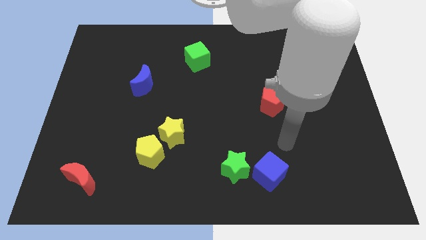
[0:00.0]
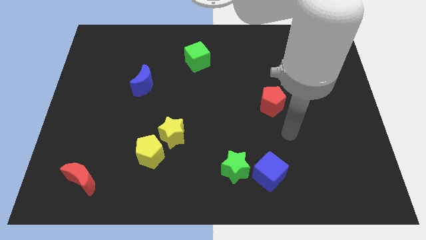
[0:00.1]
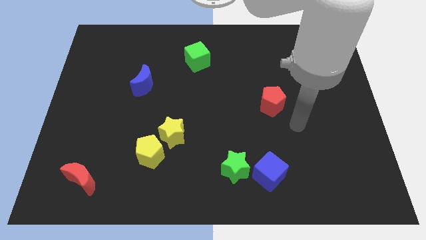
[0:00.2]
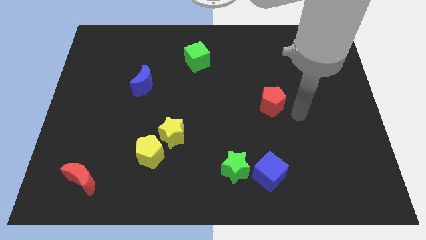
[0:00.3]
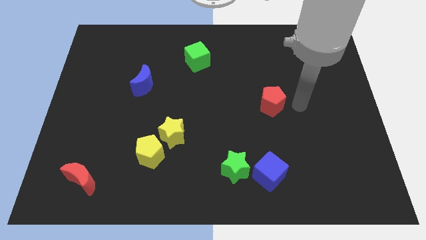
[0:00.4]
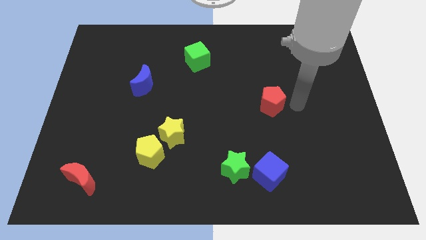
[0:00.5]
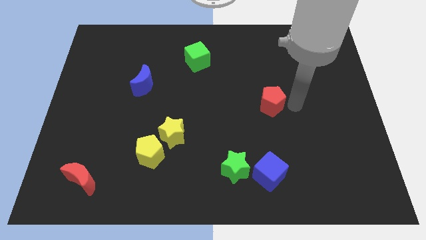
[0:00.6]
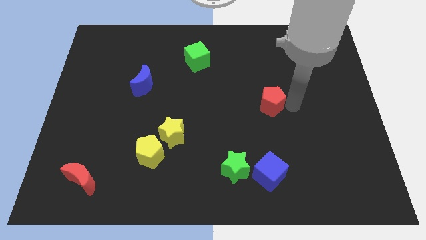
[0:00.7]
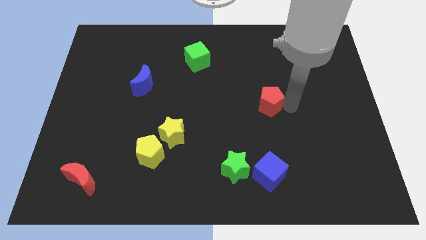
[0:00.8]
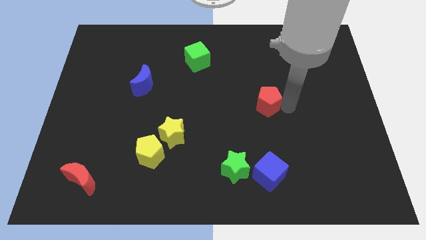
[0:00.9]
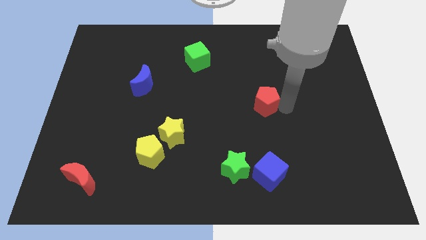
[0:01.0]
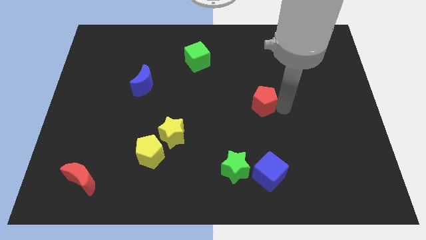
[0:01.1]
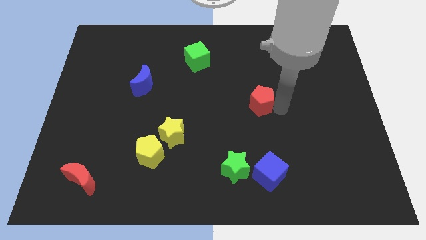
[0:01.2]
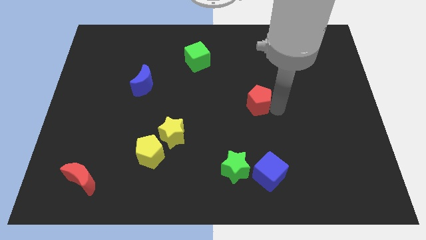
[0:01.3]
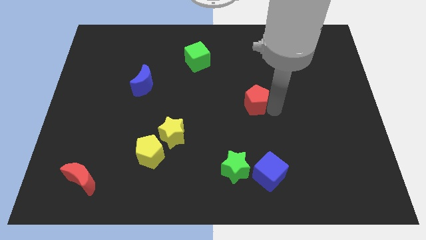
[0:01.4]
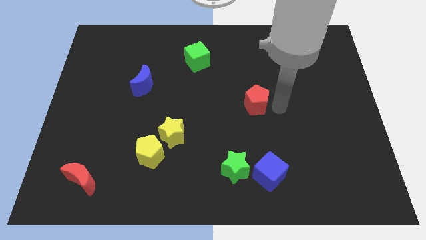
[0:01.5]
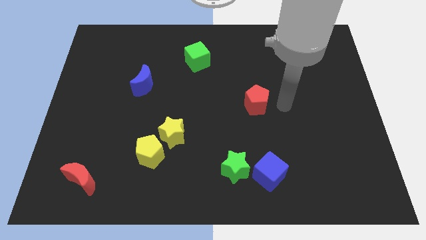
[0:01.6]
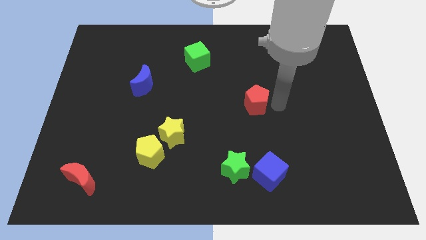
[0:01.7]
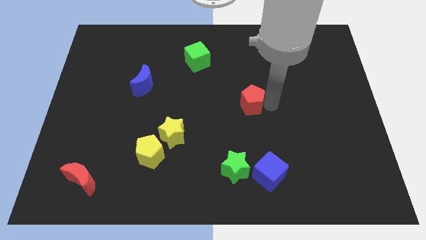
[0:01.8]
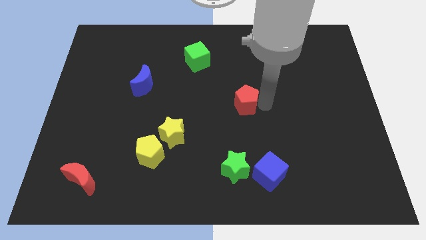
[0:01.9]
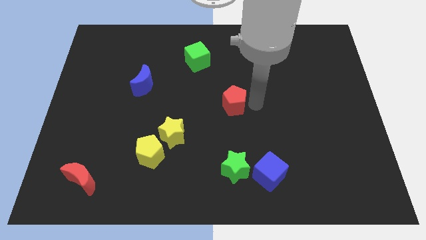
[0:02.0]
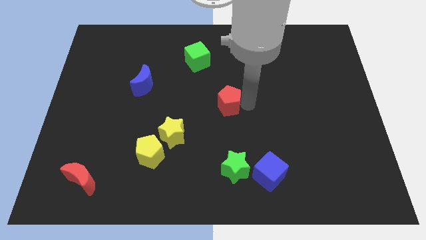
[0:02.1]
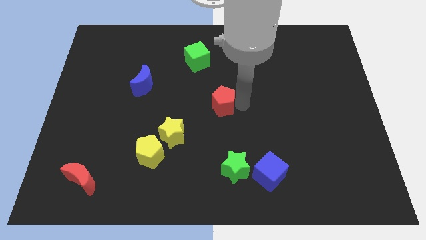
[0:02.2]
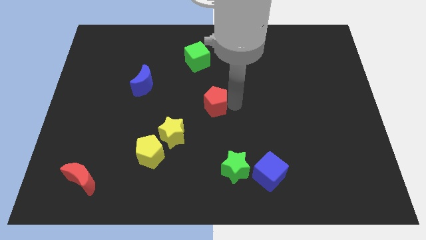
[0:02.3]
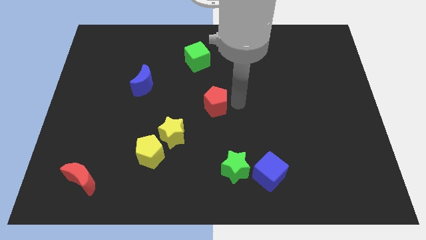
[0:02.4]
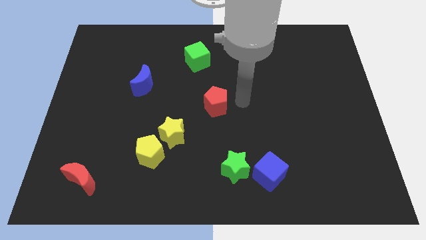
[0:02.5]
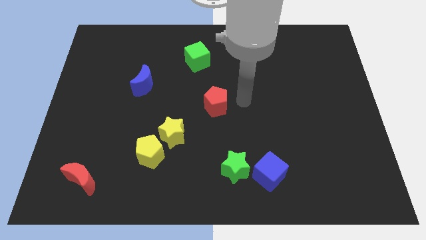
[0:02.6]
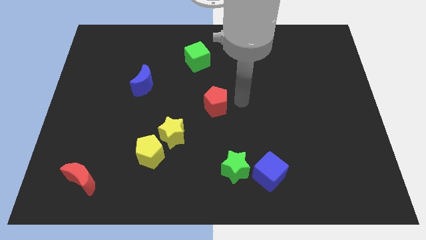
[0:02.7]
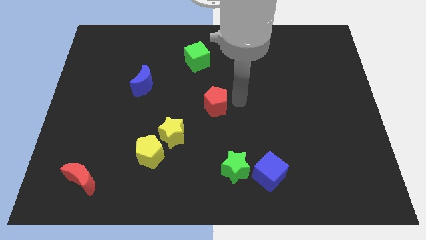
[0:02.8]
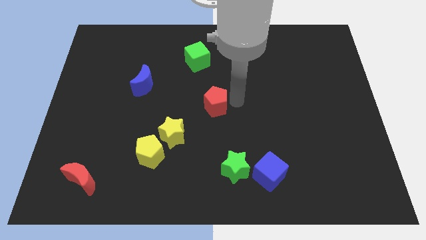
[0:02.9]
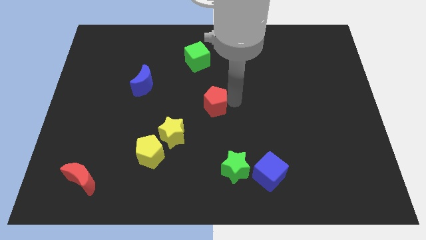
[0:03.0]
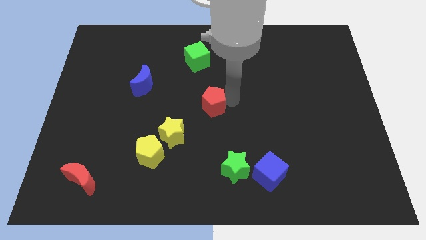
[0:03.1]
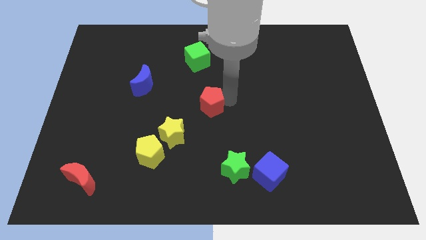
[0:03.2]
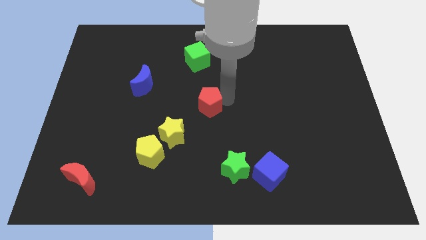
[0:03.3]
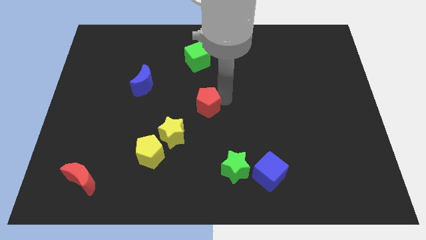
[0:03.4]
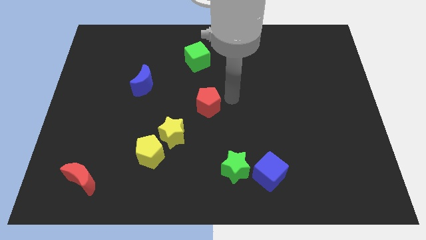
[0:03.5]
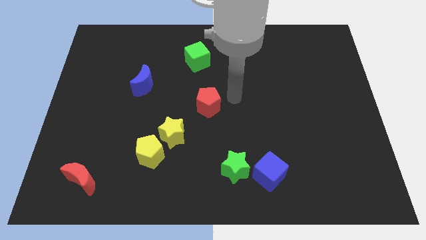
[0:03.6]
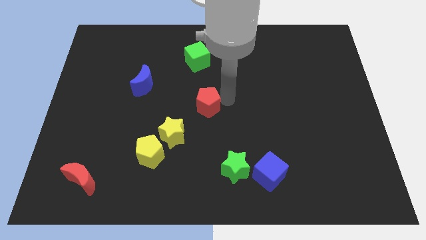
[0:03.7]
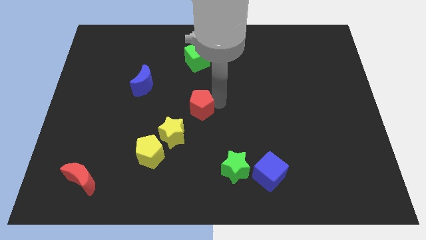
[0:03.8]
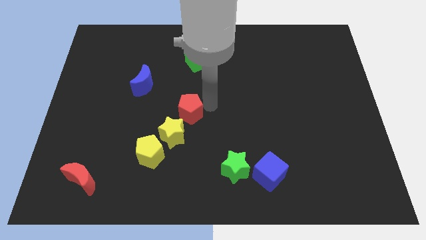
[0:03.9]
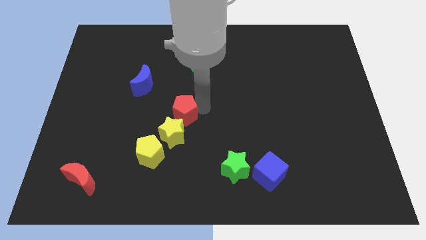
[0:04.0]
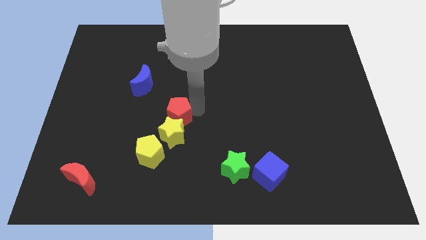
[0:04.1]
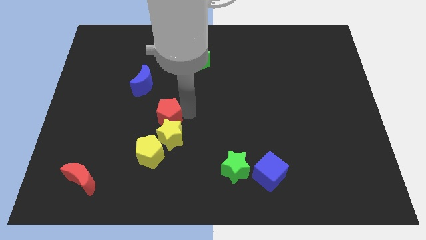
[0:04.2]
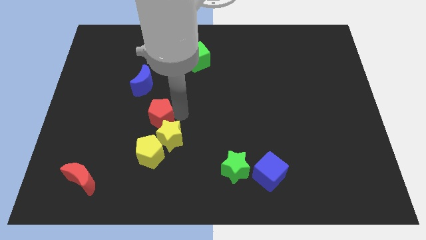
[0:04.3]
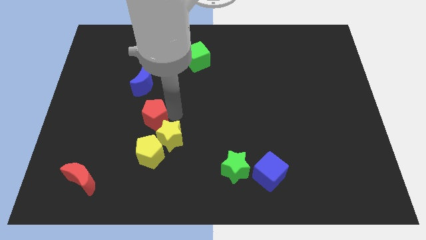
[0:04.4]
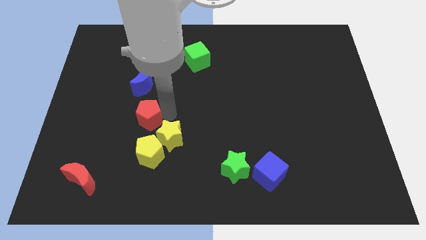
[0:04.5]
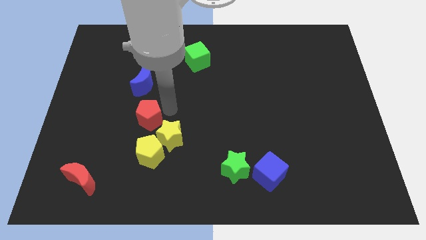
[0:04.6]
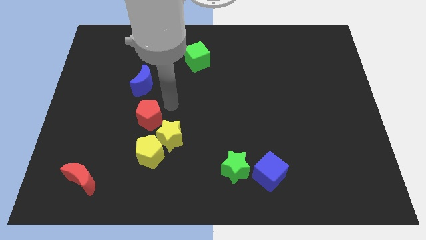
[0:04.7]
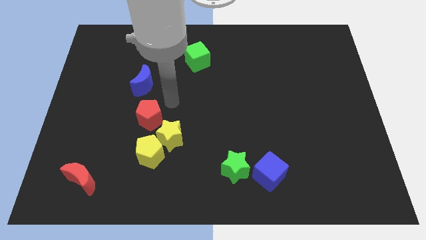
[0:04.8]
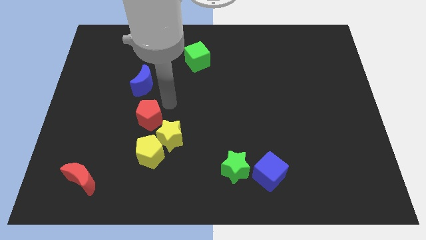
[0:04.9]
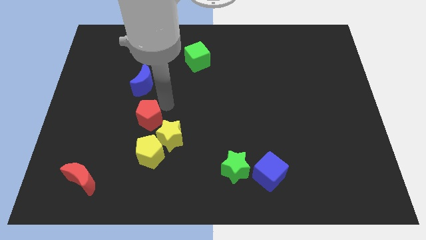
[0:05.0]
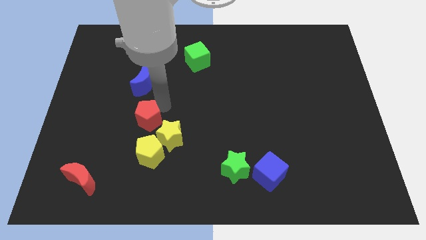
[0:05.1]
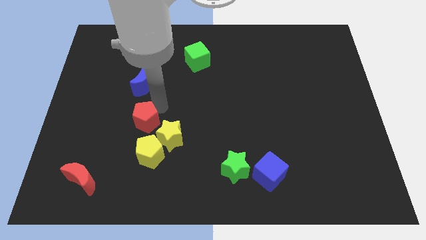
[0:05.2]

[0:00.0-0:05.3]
move the red pentagon diagonally up and to the left of the yellow pentagon

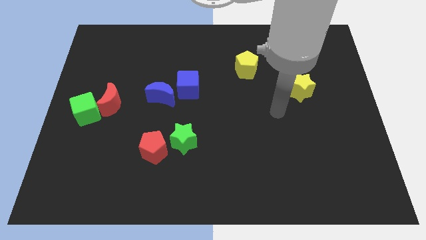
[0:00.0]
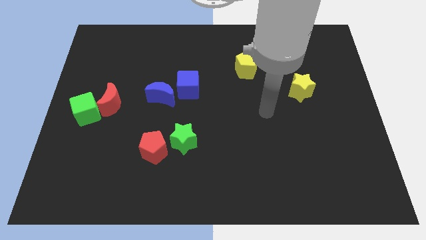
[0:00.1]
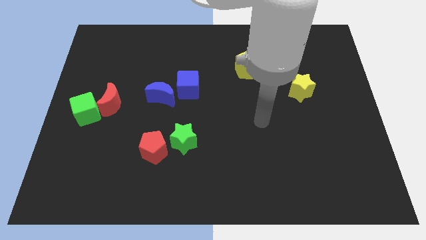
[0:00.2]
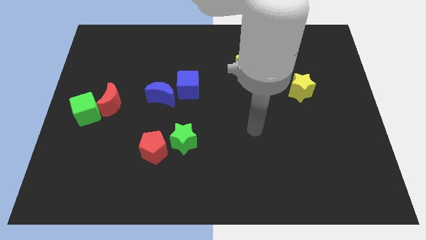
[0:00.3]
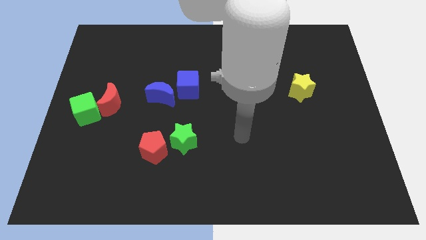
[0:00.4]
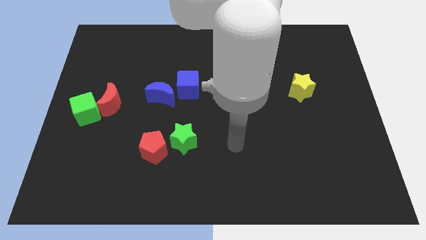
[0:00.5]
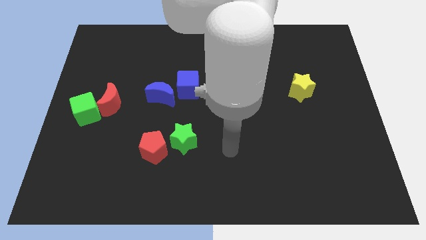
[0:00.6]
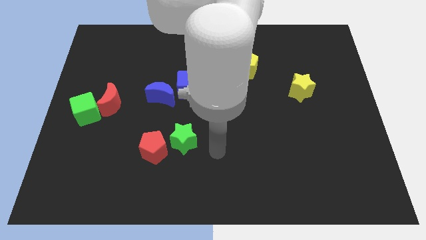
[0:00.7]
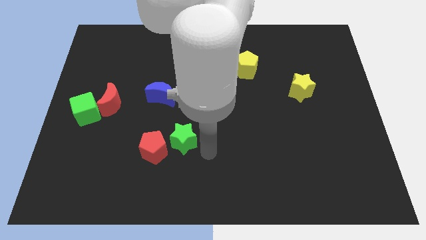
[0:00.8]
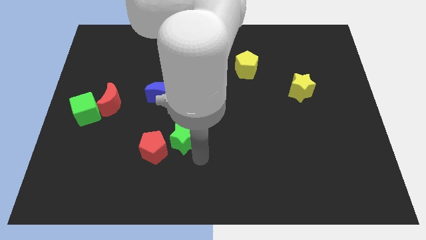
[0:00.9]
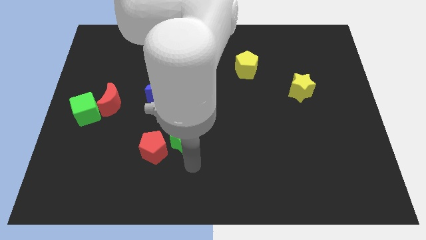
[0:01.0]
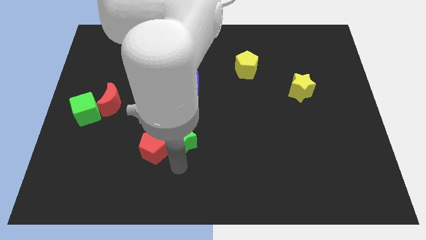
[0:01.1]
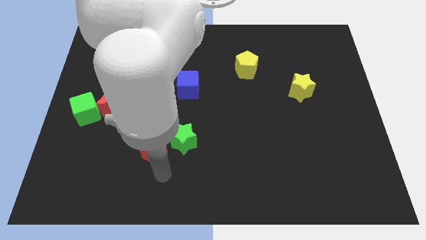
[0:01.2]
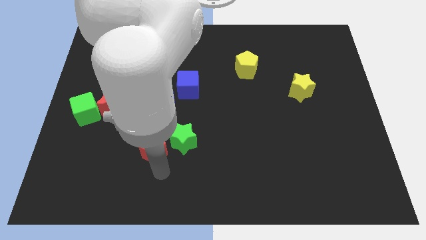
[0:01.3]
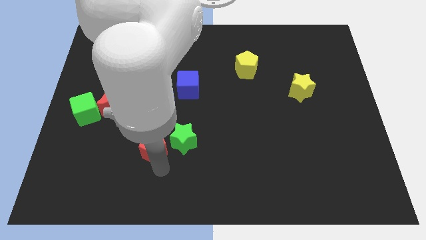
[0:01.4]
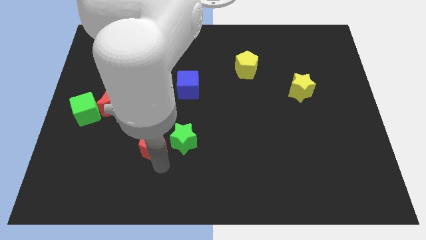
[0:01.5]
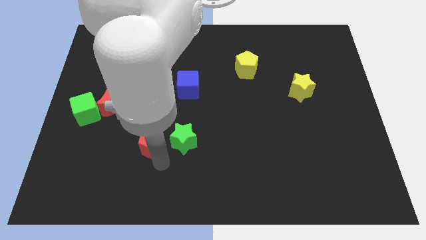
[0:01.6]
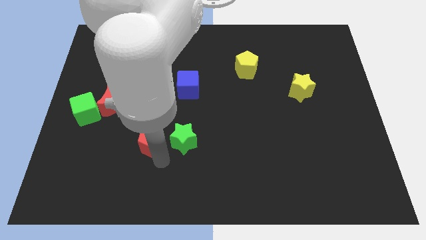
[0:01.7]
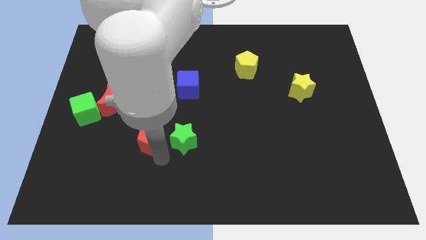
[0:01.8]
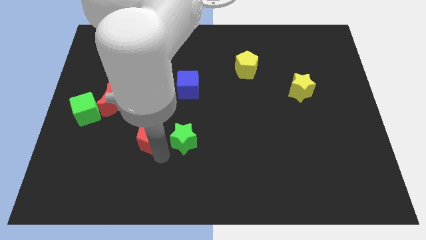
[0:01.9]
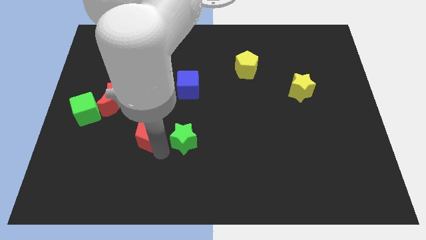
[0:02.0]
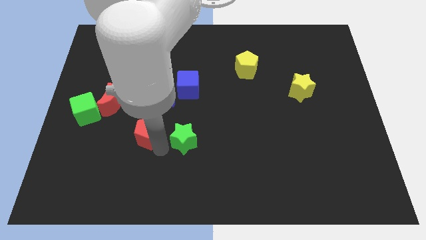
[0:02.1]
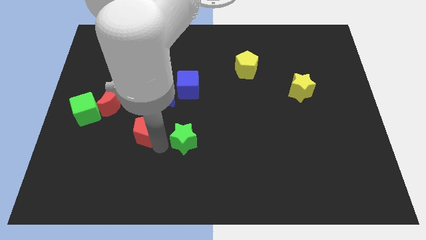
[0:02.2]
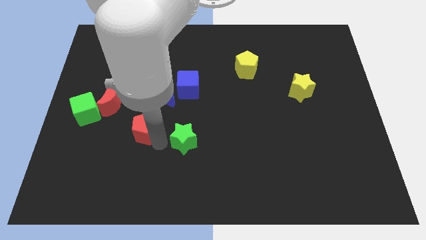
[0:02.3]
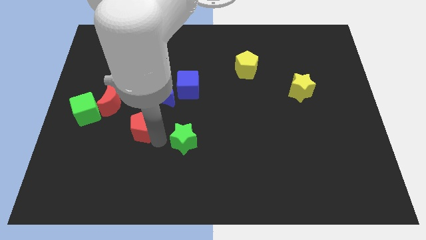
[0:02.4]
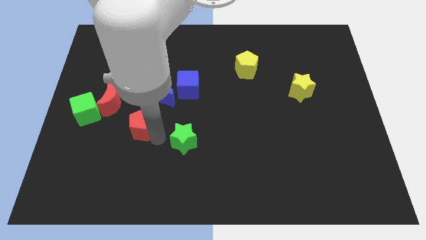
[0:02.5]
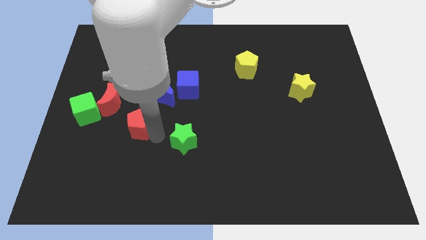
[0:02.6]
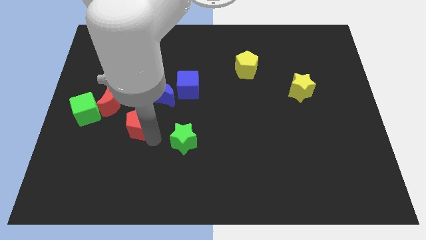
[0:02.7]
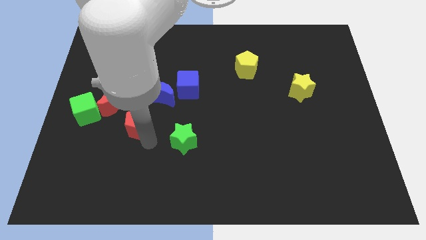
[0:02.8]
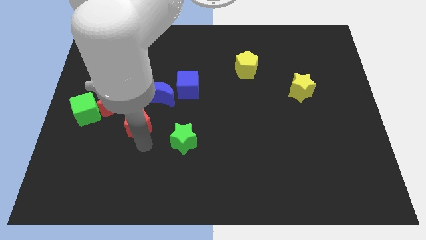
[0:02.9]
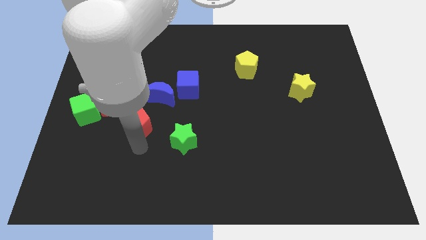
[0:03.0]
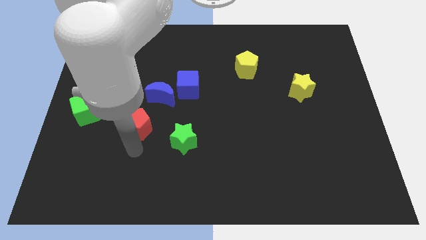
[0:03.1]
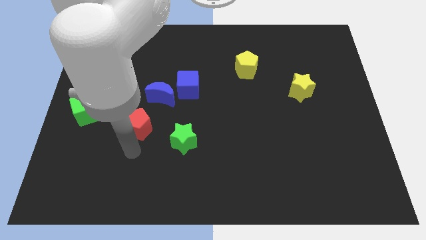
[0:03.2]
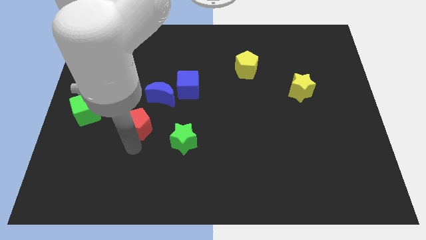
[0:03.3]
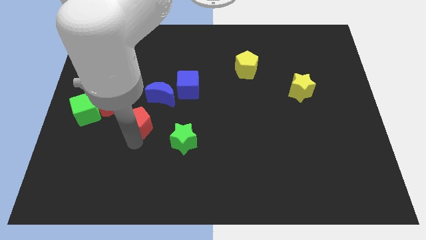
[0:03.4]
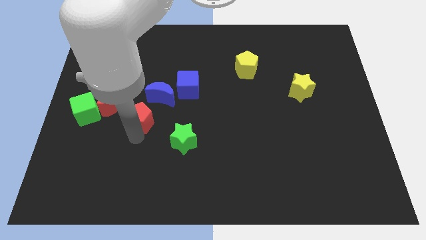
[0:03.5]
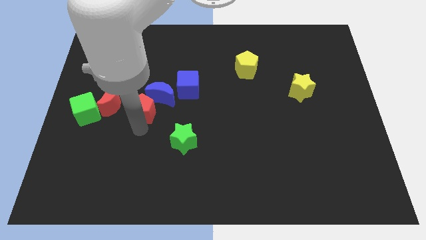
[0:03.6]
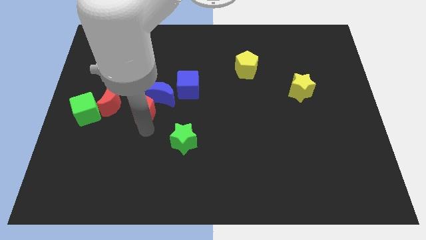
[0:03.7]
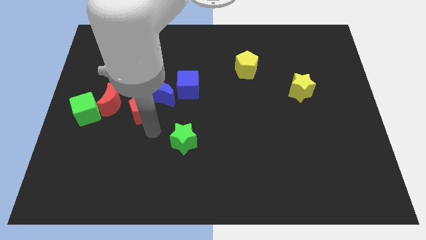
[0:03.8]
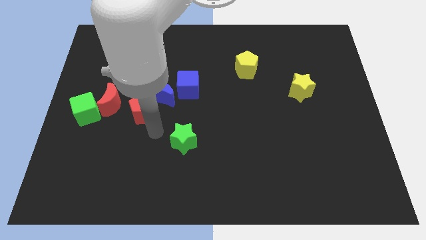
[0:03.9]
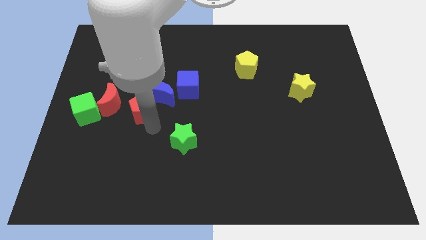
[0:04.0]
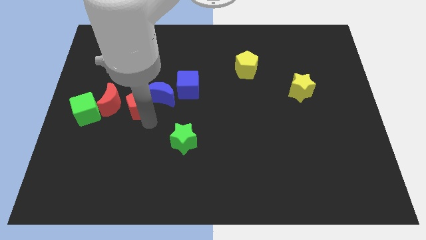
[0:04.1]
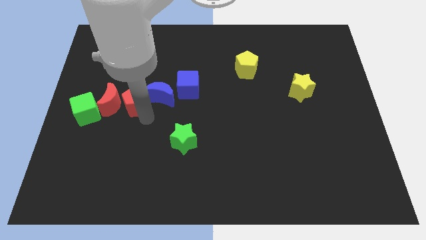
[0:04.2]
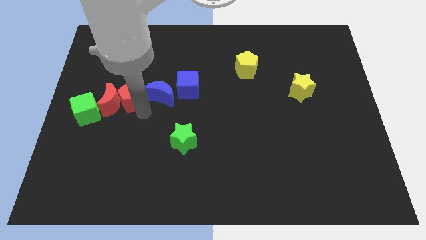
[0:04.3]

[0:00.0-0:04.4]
push the red pentagon to the top right of the green cube
